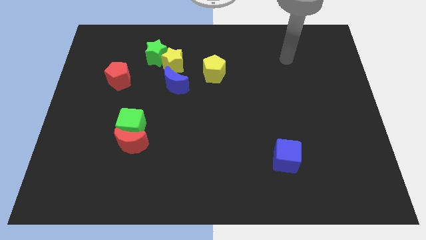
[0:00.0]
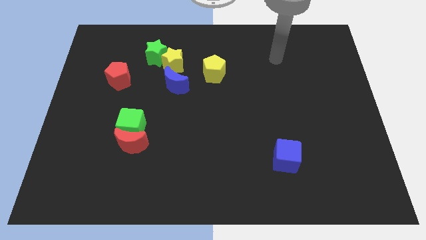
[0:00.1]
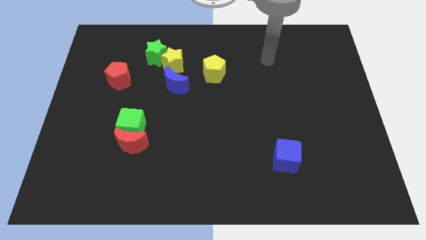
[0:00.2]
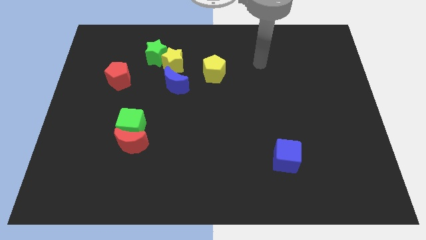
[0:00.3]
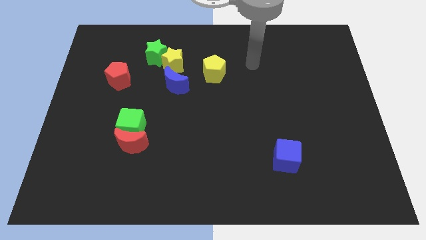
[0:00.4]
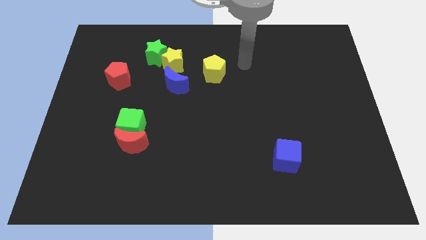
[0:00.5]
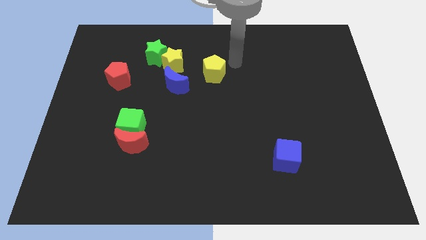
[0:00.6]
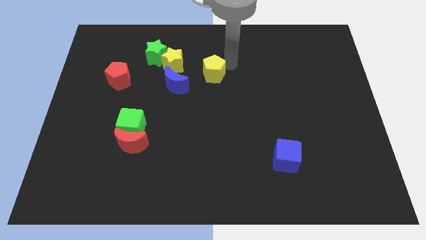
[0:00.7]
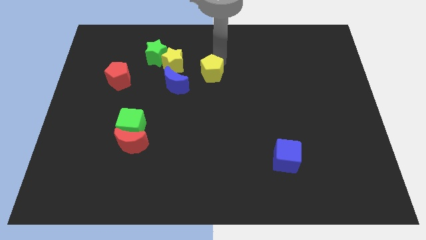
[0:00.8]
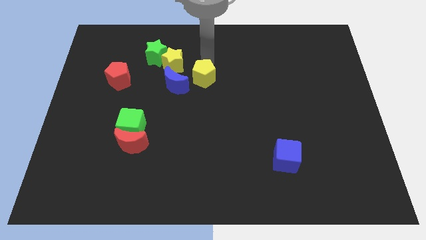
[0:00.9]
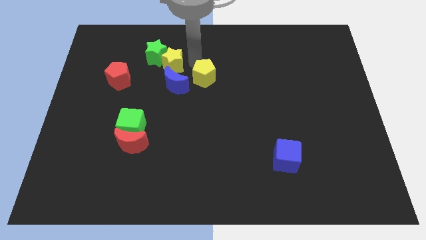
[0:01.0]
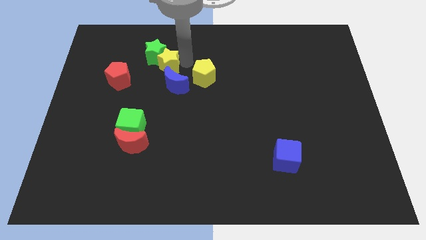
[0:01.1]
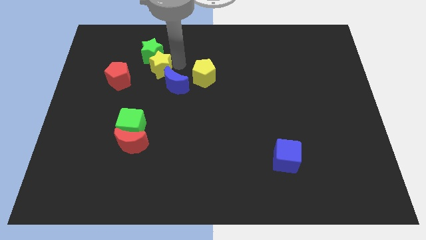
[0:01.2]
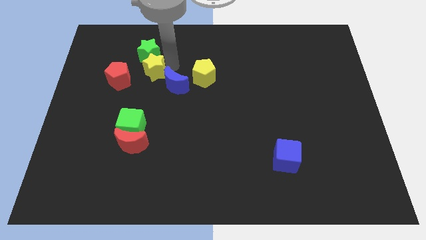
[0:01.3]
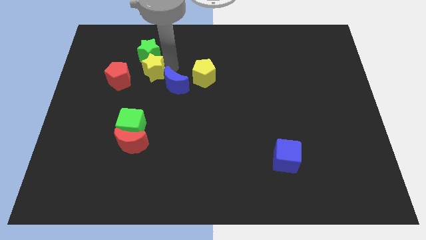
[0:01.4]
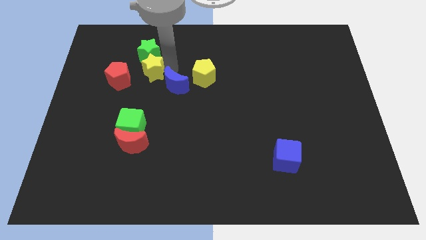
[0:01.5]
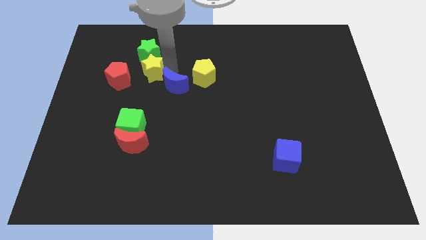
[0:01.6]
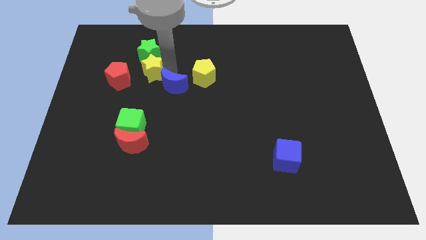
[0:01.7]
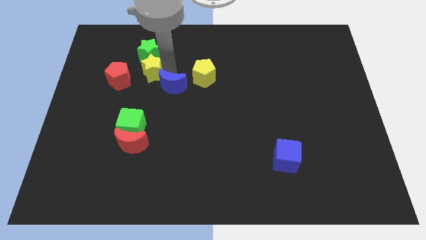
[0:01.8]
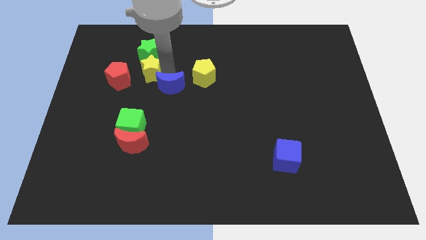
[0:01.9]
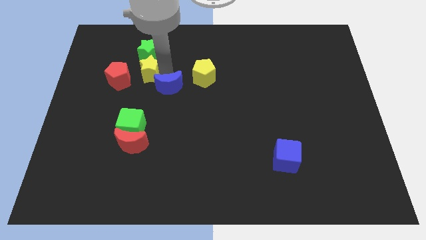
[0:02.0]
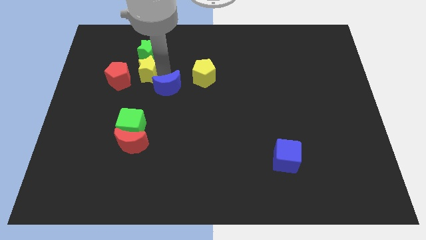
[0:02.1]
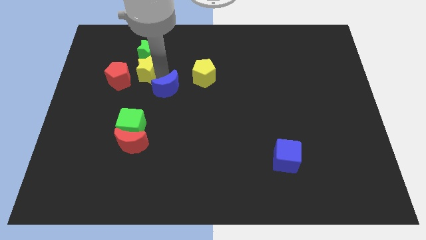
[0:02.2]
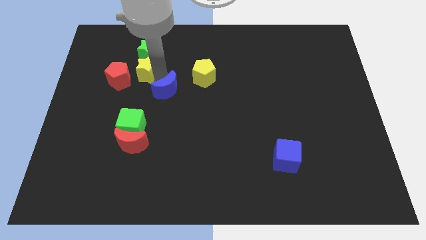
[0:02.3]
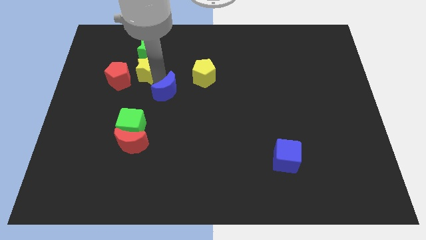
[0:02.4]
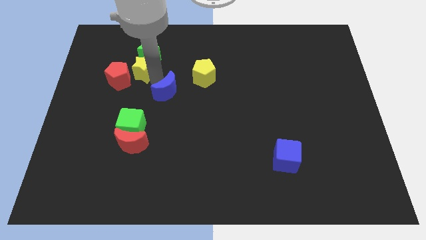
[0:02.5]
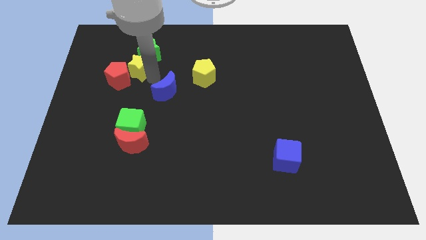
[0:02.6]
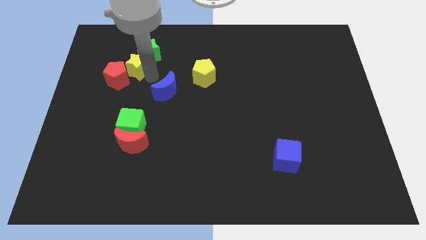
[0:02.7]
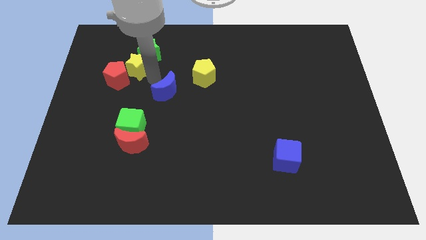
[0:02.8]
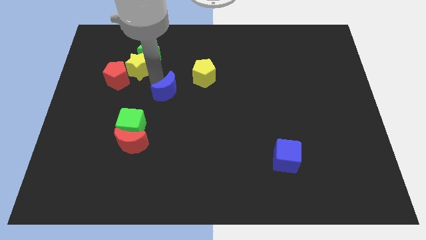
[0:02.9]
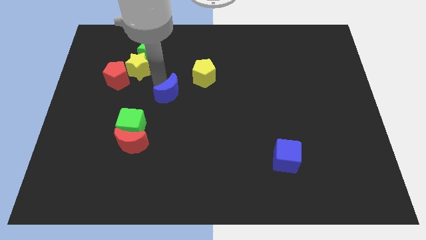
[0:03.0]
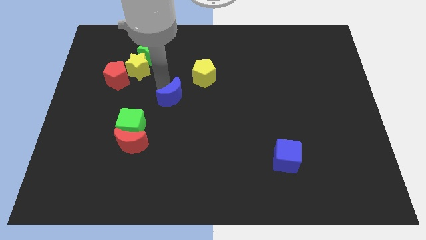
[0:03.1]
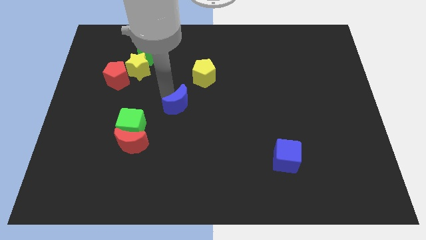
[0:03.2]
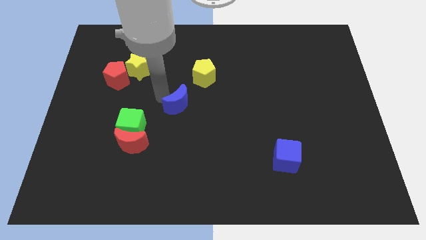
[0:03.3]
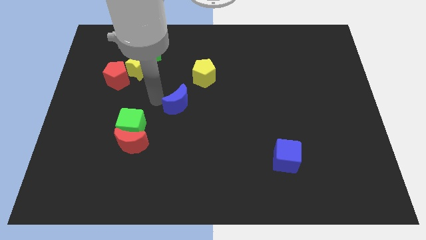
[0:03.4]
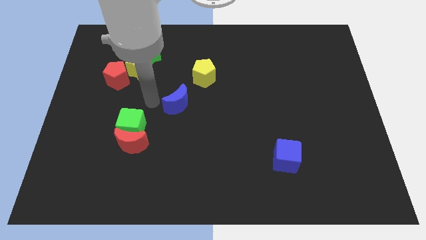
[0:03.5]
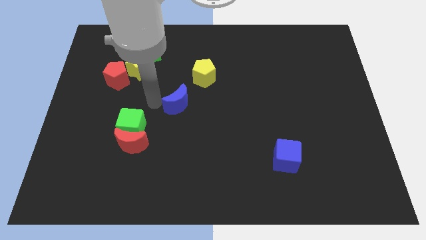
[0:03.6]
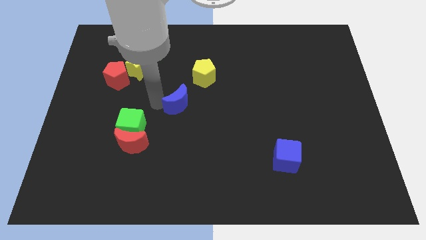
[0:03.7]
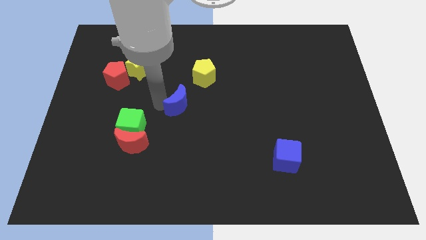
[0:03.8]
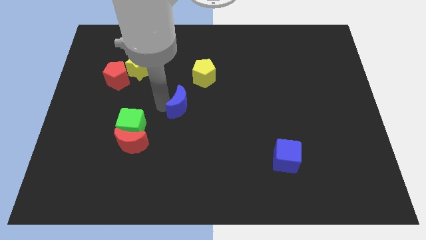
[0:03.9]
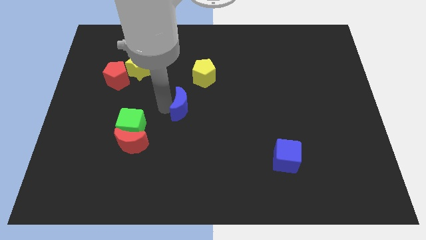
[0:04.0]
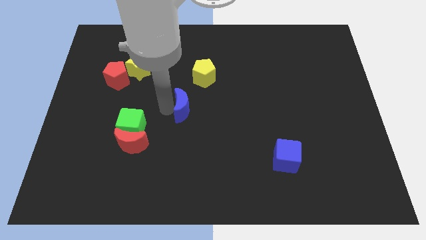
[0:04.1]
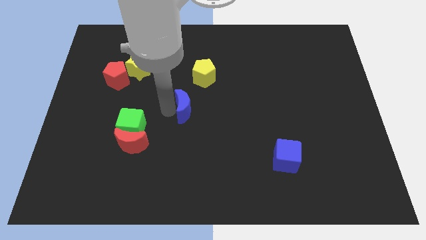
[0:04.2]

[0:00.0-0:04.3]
slightly push the blue moon downwards and to the right

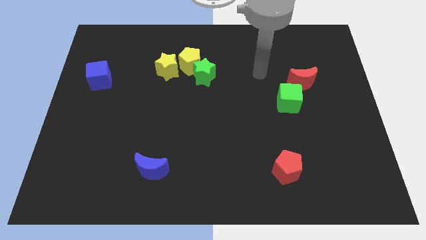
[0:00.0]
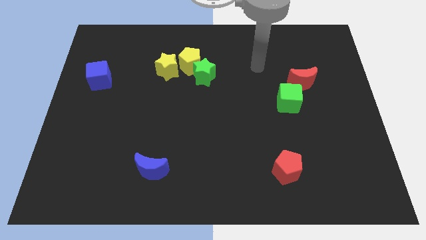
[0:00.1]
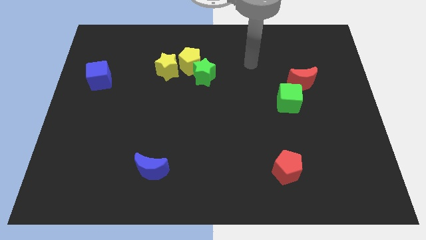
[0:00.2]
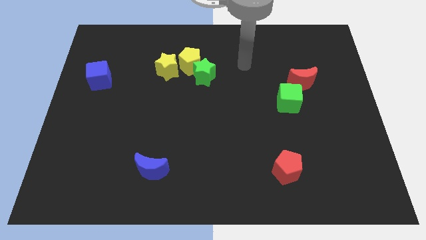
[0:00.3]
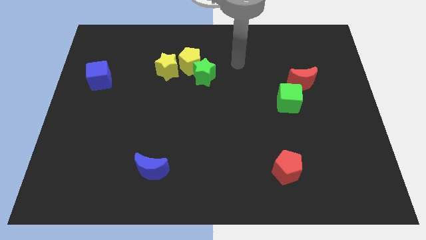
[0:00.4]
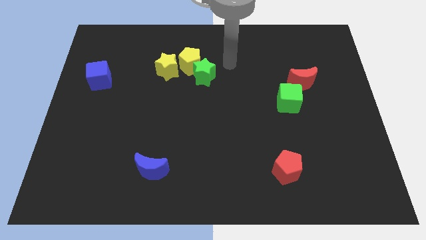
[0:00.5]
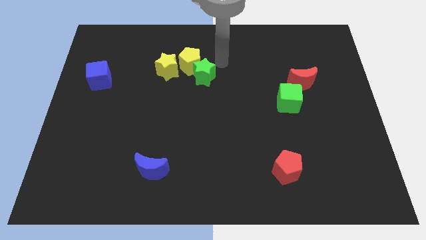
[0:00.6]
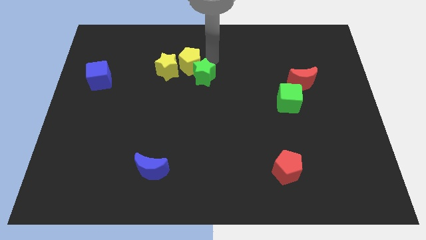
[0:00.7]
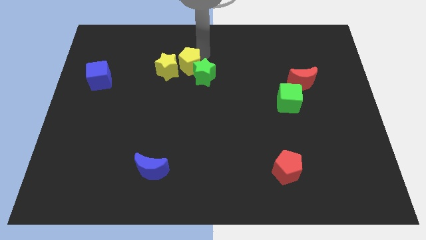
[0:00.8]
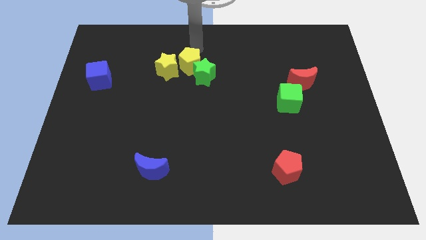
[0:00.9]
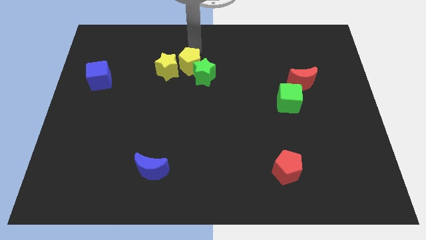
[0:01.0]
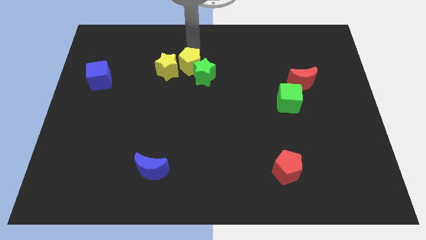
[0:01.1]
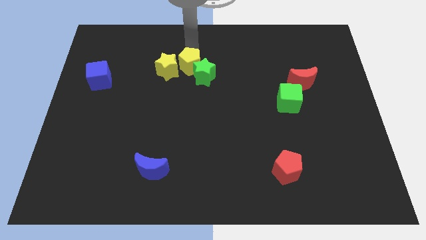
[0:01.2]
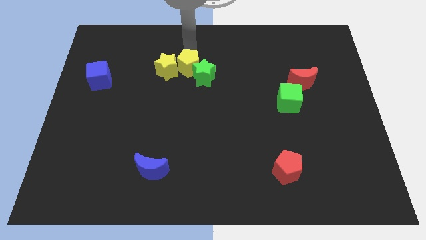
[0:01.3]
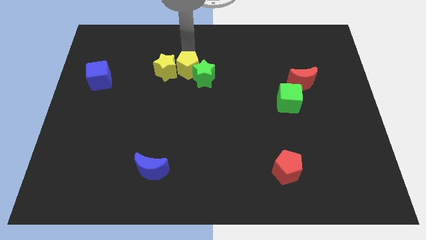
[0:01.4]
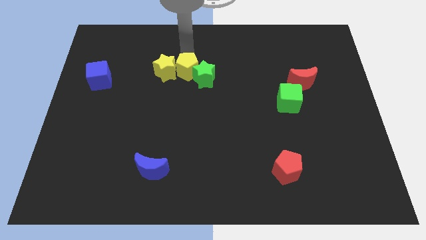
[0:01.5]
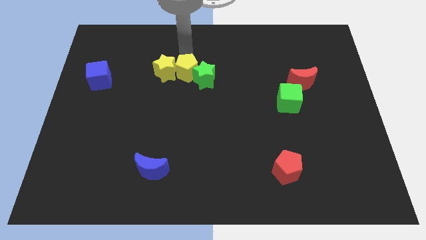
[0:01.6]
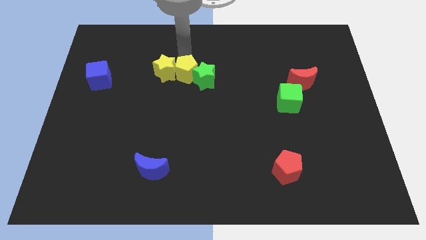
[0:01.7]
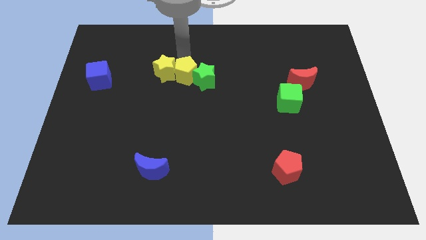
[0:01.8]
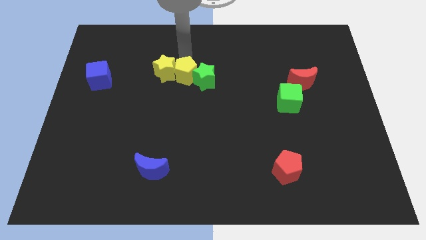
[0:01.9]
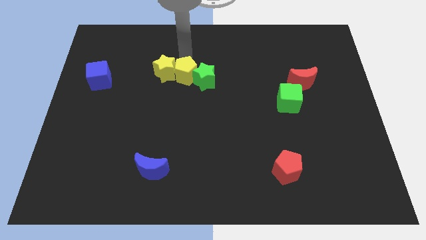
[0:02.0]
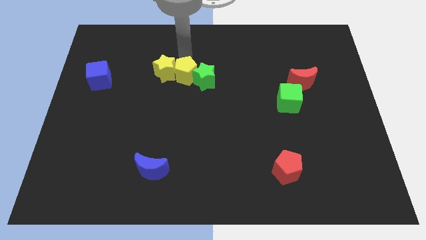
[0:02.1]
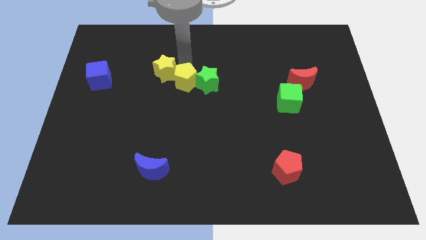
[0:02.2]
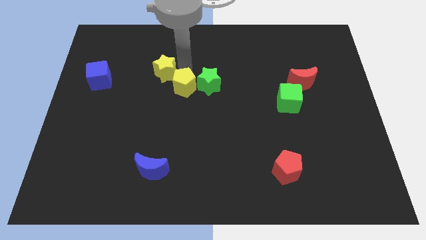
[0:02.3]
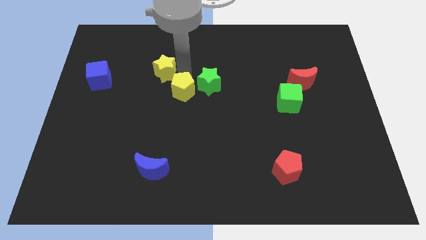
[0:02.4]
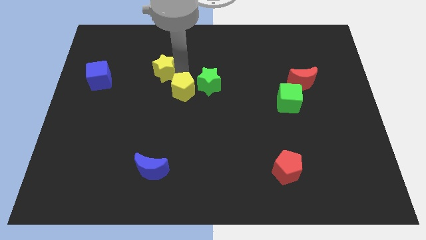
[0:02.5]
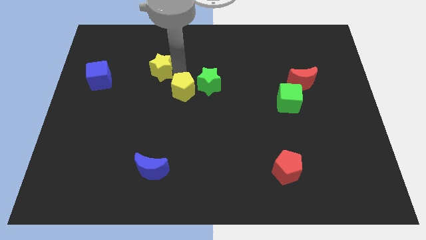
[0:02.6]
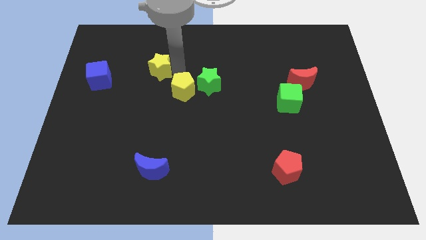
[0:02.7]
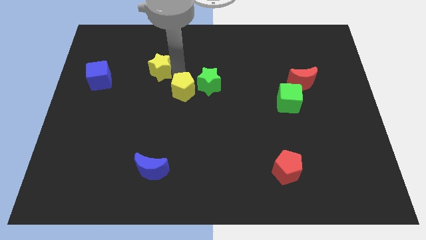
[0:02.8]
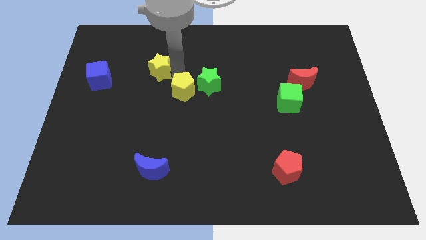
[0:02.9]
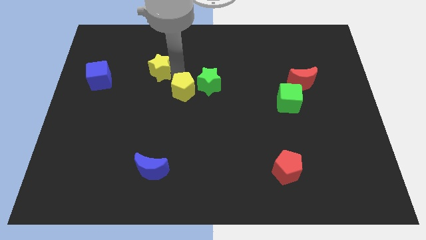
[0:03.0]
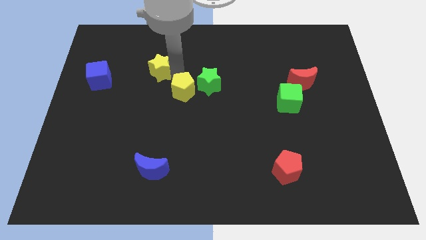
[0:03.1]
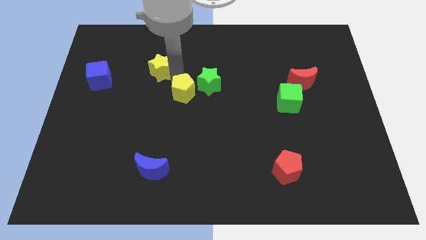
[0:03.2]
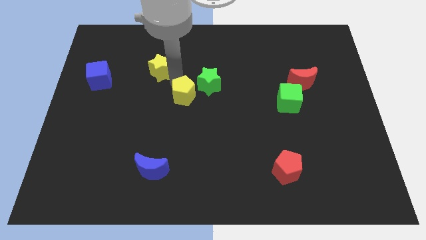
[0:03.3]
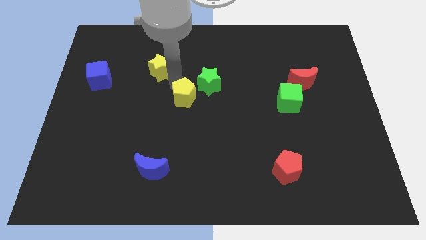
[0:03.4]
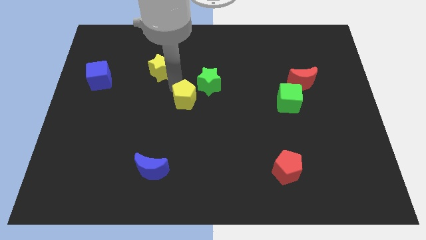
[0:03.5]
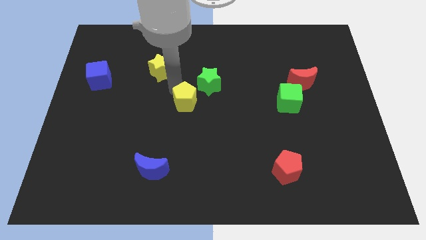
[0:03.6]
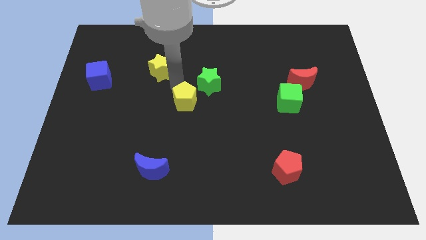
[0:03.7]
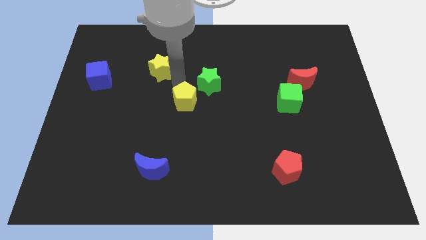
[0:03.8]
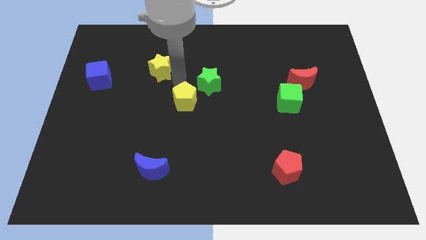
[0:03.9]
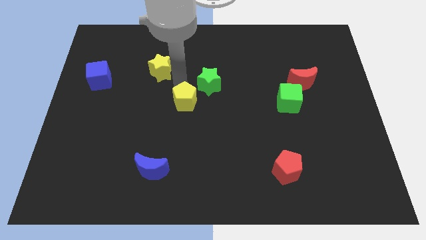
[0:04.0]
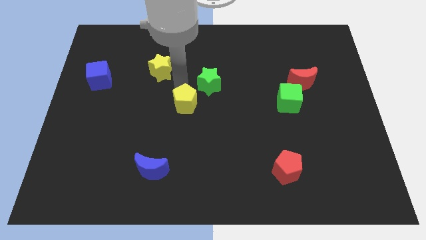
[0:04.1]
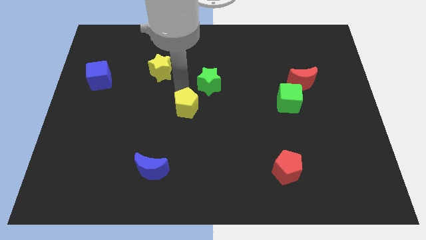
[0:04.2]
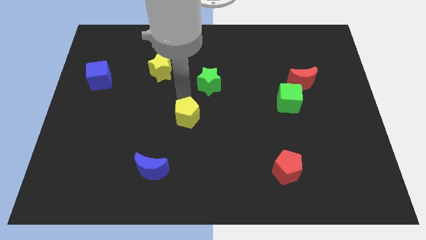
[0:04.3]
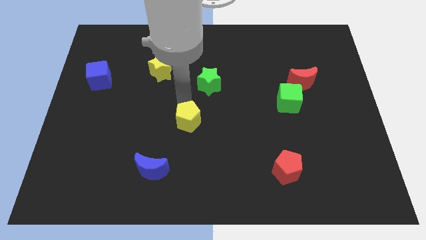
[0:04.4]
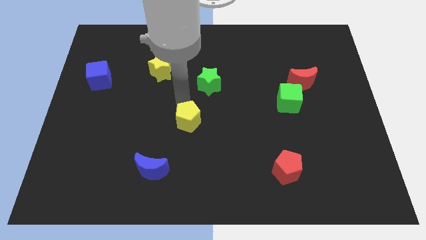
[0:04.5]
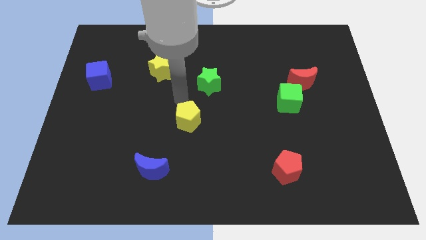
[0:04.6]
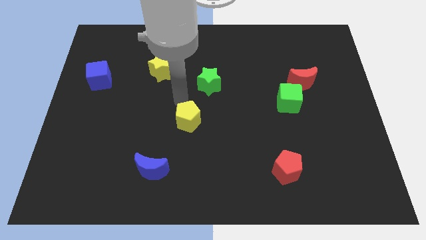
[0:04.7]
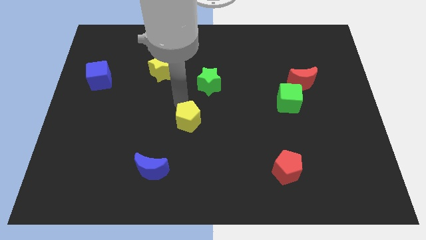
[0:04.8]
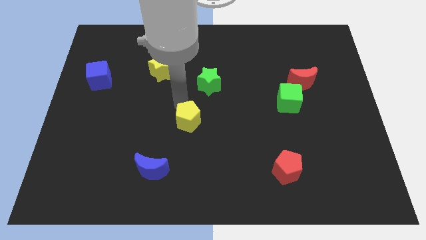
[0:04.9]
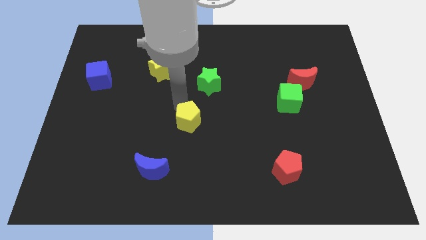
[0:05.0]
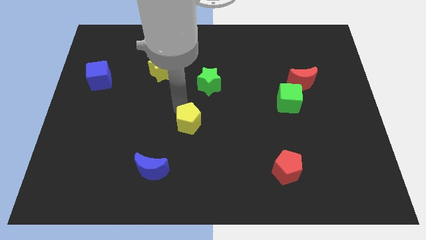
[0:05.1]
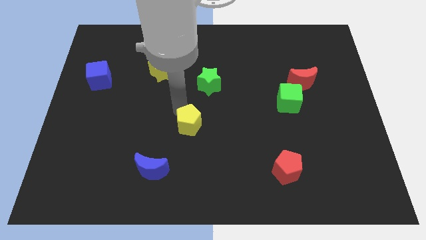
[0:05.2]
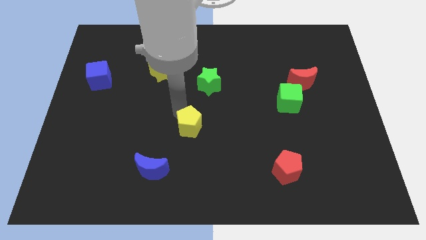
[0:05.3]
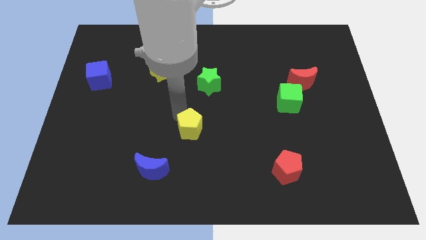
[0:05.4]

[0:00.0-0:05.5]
move the yellow pentagon down
